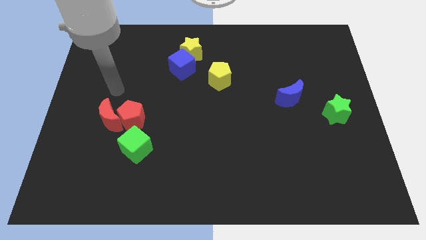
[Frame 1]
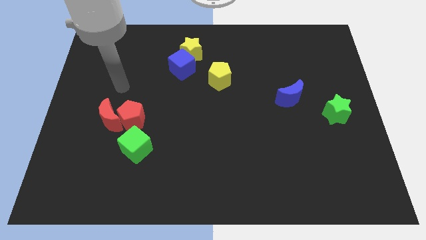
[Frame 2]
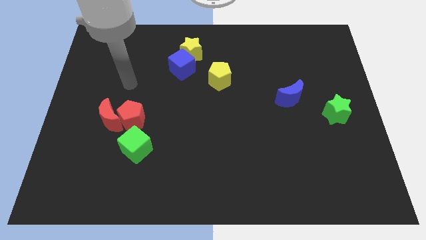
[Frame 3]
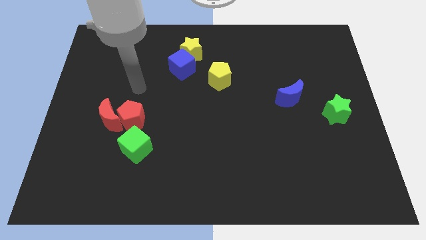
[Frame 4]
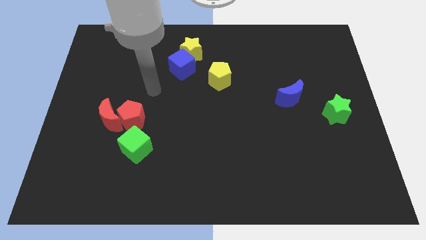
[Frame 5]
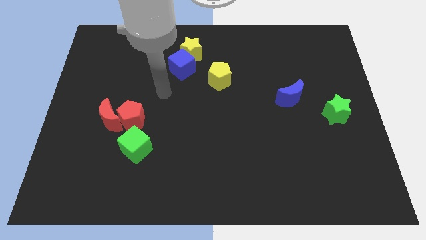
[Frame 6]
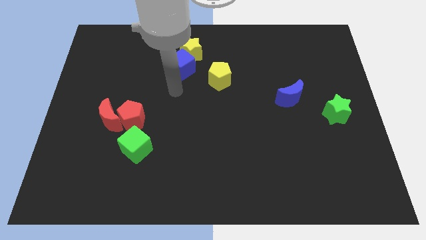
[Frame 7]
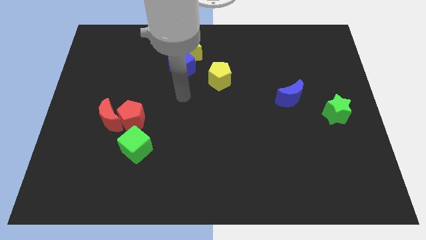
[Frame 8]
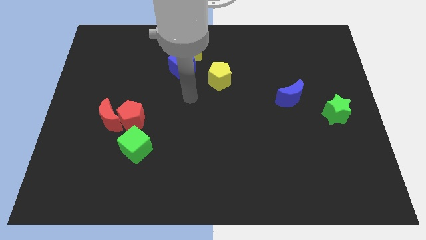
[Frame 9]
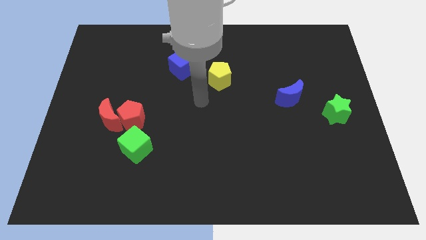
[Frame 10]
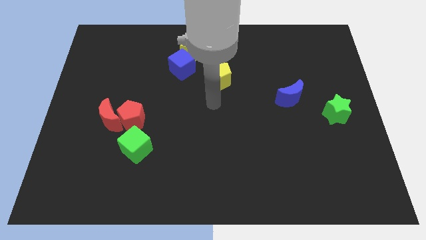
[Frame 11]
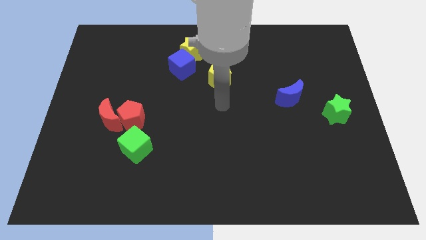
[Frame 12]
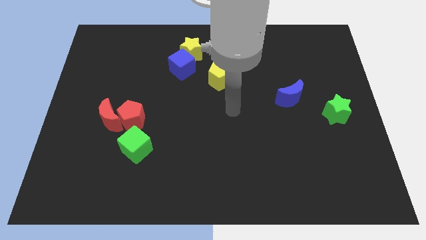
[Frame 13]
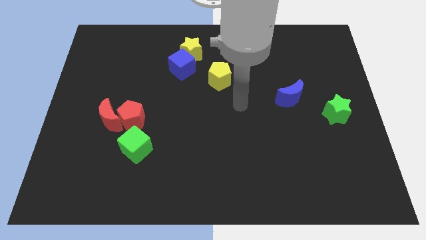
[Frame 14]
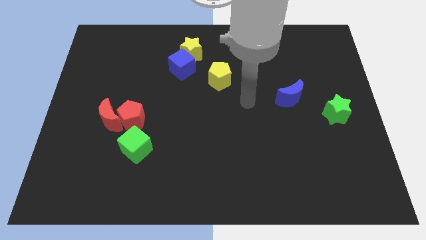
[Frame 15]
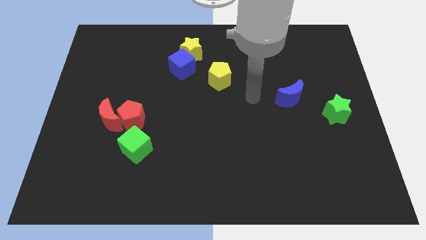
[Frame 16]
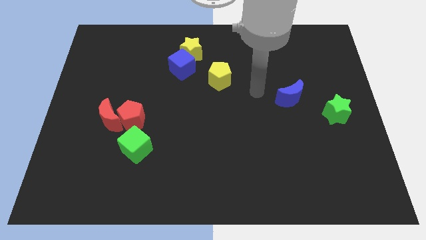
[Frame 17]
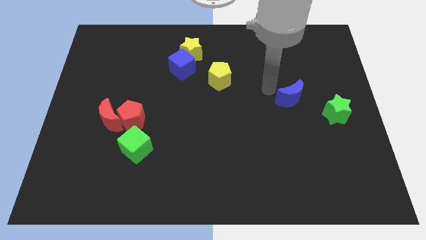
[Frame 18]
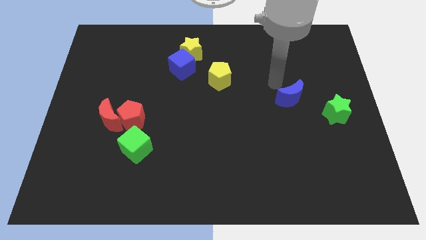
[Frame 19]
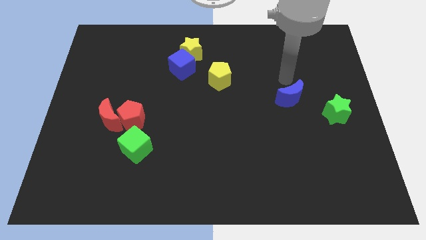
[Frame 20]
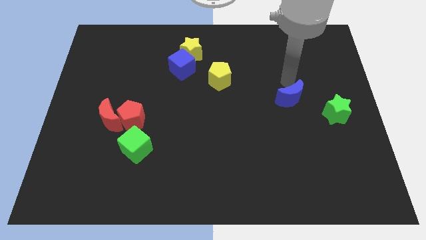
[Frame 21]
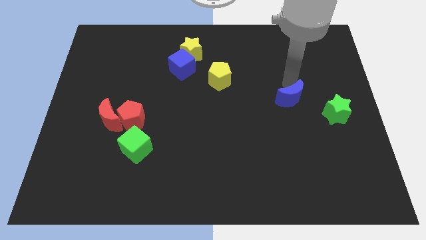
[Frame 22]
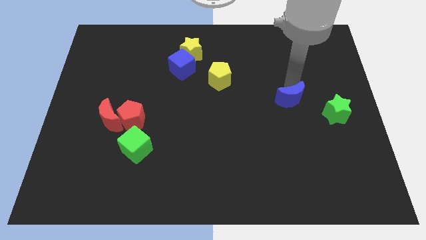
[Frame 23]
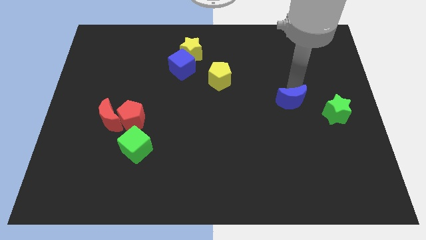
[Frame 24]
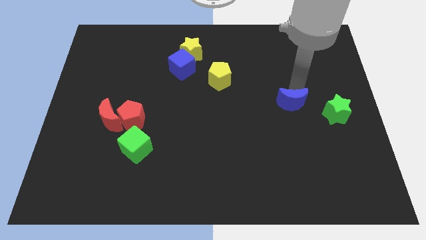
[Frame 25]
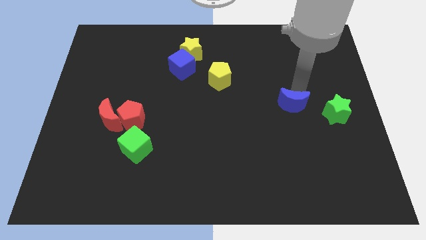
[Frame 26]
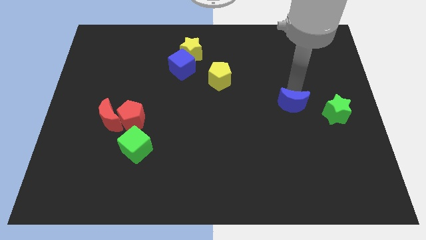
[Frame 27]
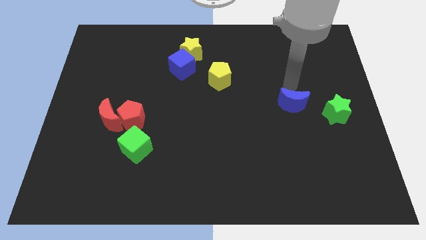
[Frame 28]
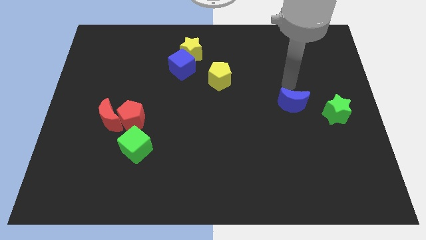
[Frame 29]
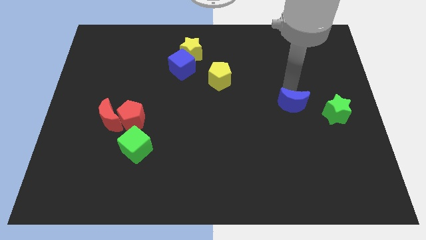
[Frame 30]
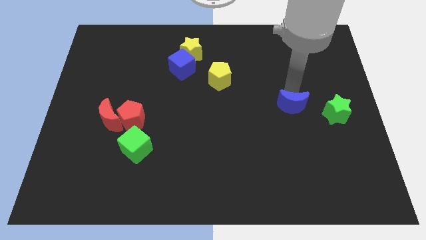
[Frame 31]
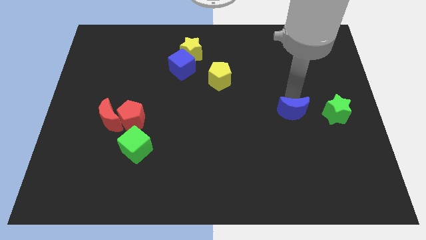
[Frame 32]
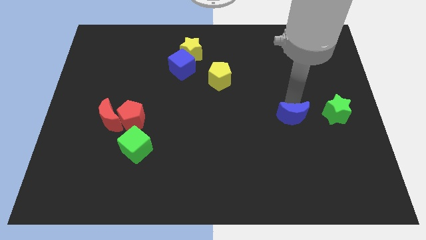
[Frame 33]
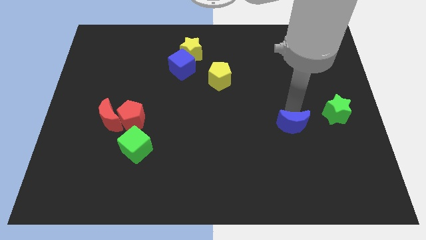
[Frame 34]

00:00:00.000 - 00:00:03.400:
slightly move the blue moon downwards

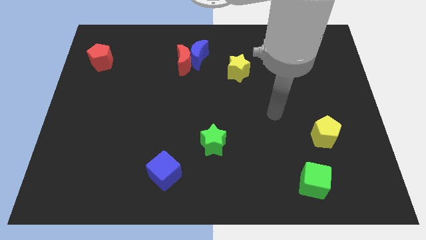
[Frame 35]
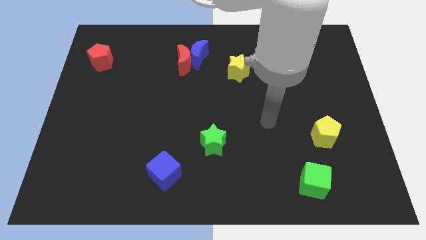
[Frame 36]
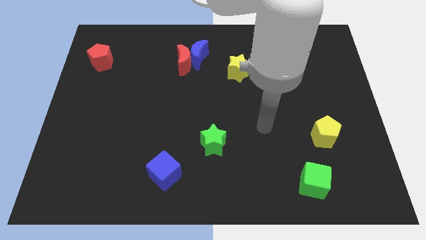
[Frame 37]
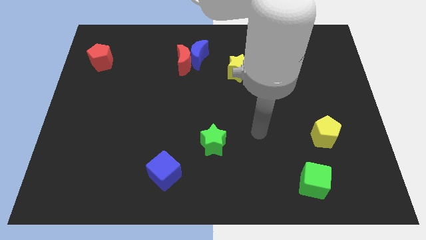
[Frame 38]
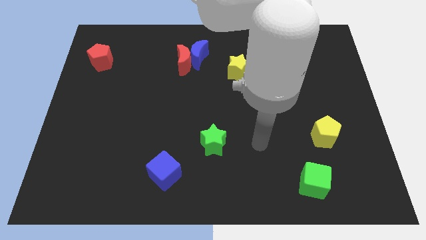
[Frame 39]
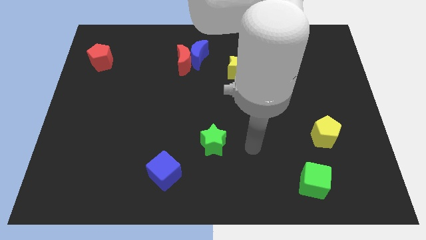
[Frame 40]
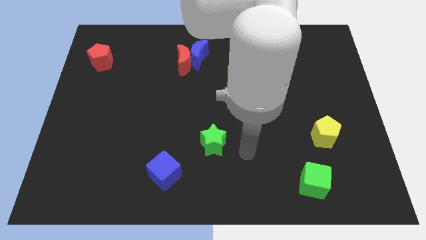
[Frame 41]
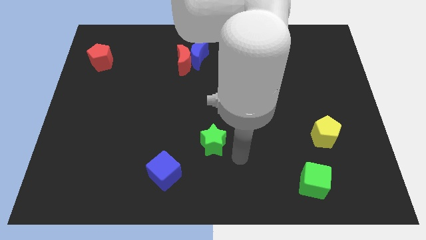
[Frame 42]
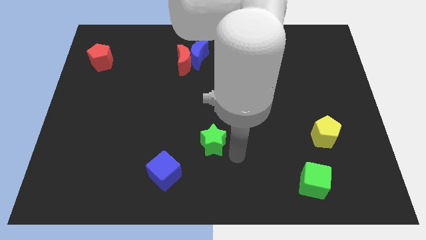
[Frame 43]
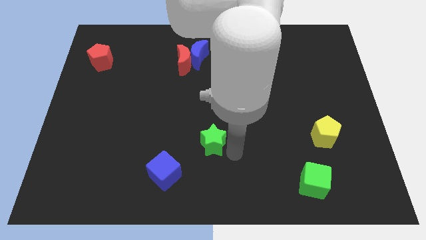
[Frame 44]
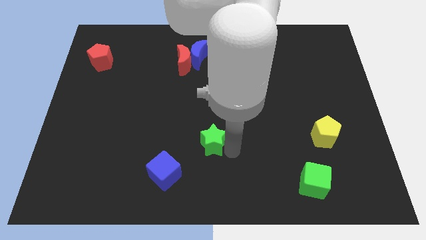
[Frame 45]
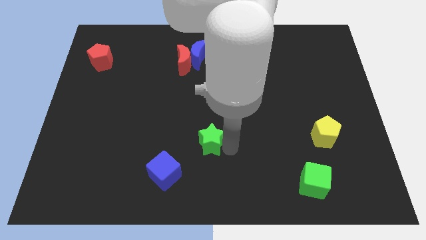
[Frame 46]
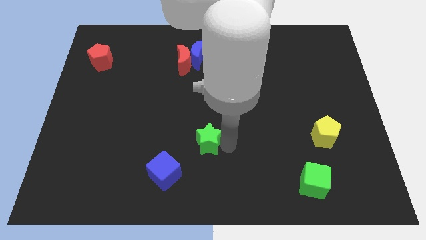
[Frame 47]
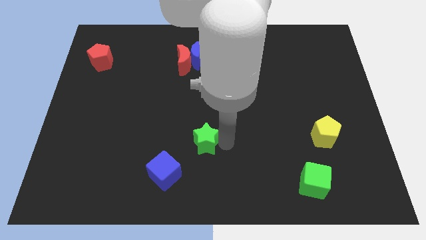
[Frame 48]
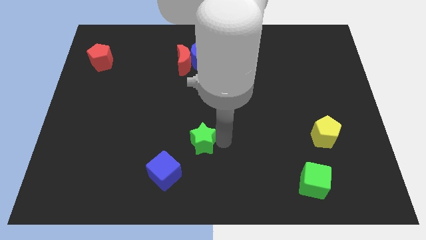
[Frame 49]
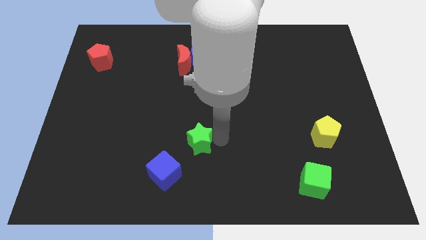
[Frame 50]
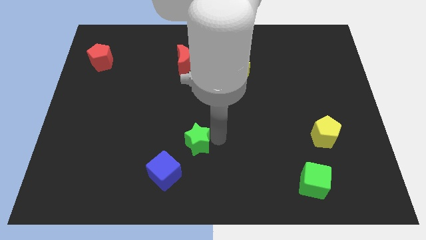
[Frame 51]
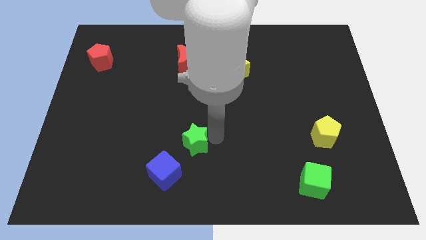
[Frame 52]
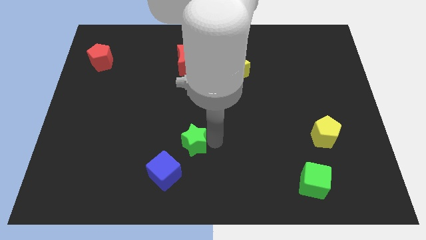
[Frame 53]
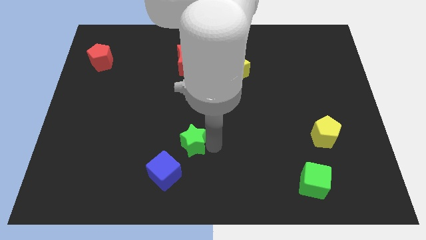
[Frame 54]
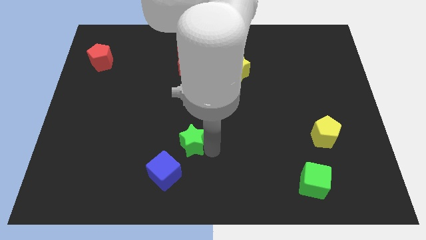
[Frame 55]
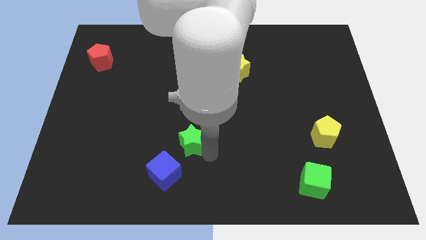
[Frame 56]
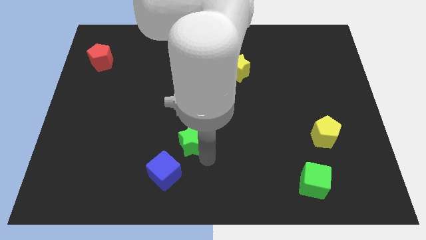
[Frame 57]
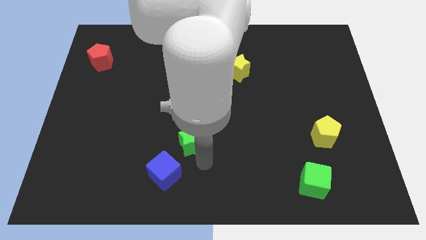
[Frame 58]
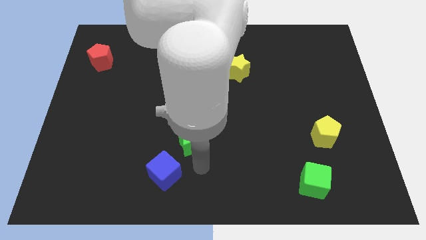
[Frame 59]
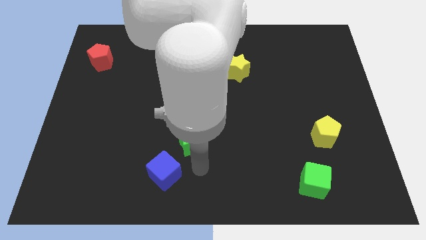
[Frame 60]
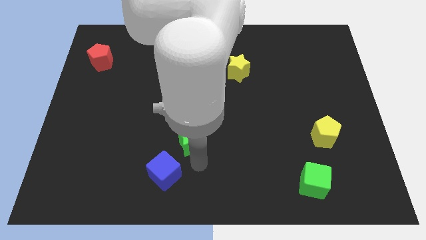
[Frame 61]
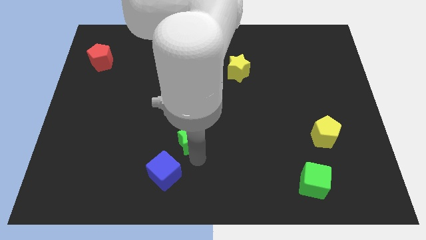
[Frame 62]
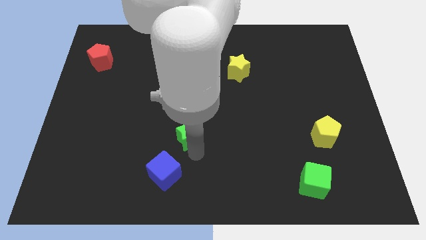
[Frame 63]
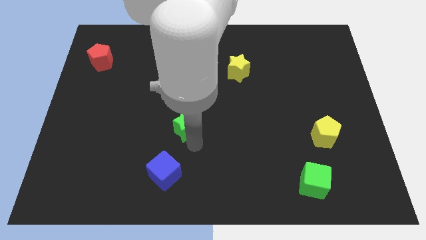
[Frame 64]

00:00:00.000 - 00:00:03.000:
push the green star a little bit diagonally upwards and left

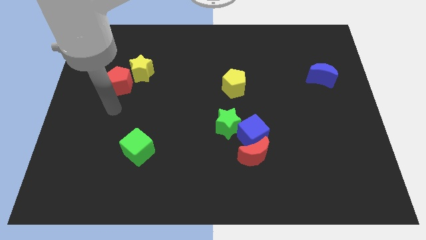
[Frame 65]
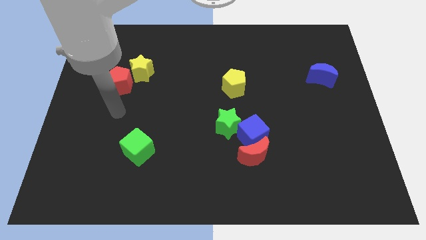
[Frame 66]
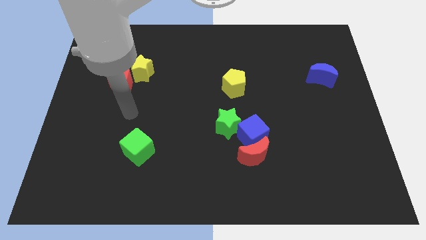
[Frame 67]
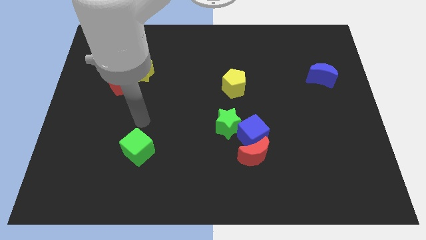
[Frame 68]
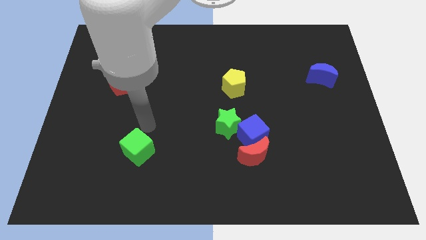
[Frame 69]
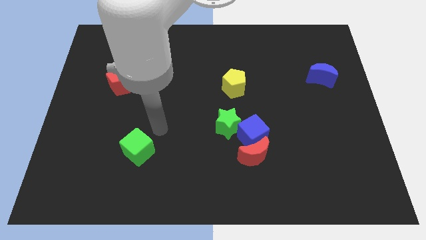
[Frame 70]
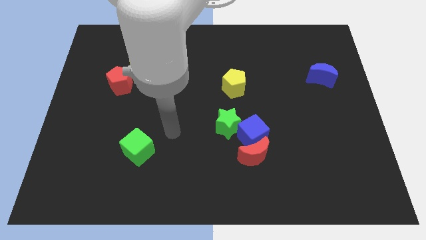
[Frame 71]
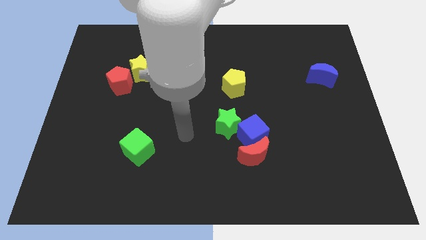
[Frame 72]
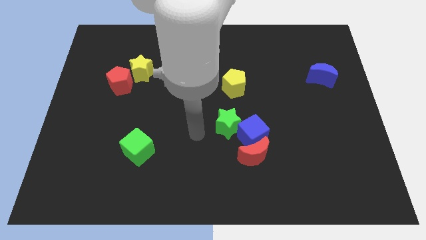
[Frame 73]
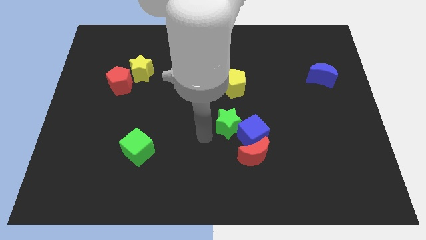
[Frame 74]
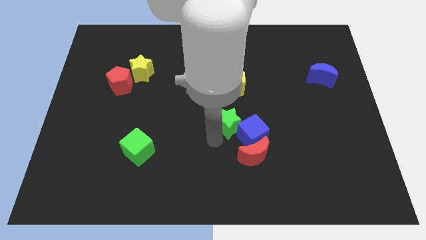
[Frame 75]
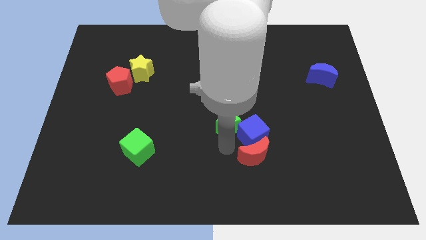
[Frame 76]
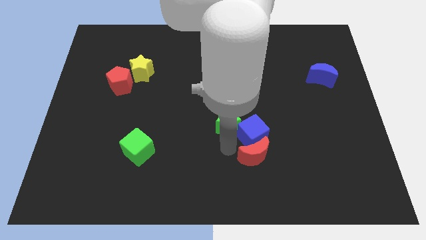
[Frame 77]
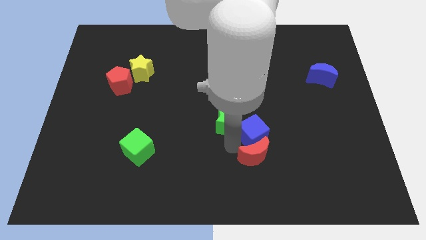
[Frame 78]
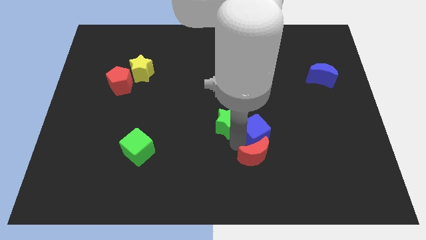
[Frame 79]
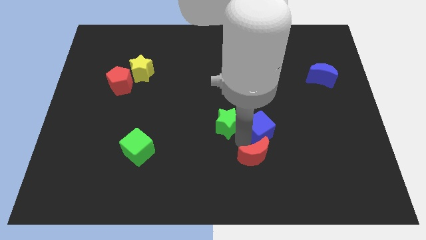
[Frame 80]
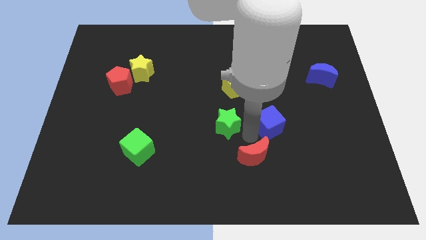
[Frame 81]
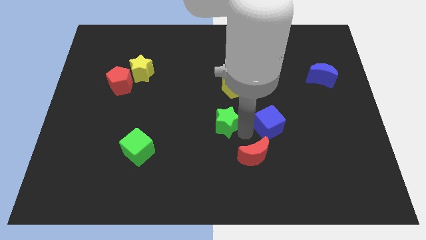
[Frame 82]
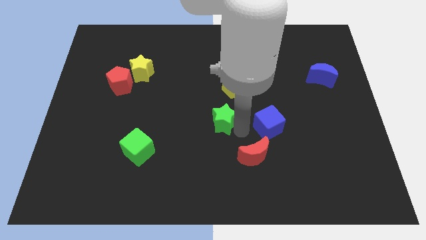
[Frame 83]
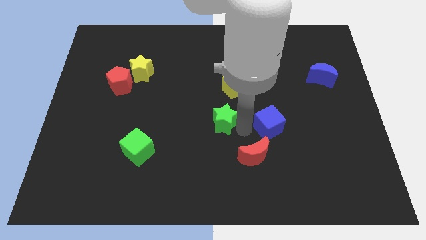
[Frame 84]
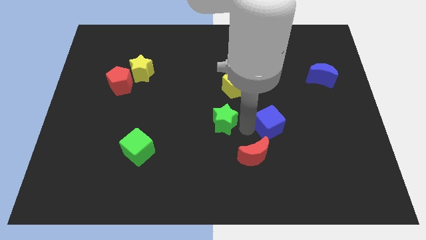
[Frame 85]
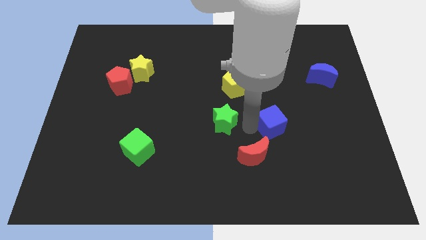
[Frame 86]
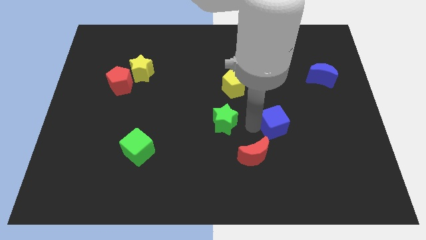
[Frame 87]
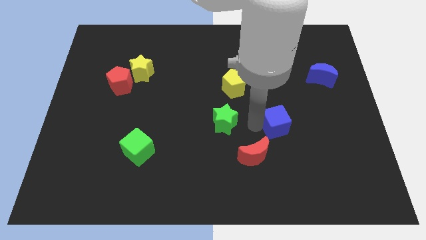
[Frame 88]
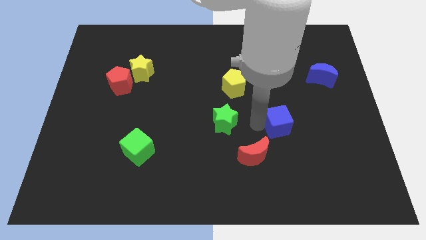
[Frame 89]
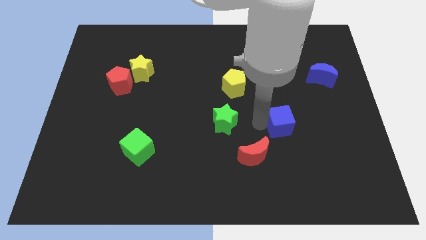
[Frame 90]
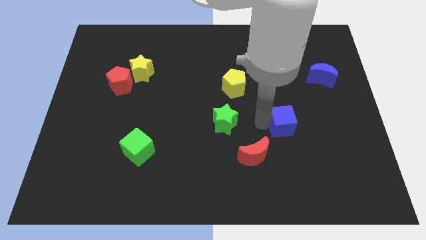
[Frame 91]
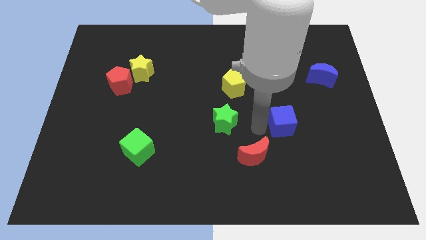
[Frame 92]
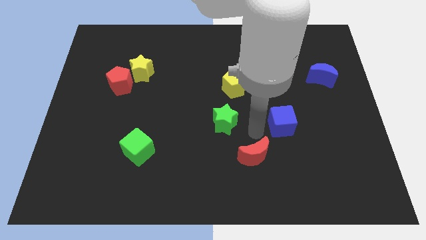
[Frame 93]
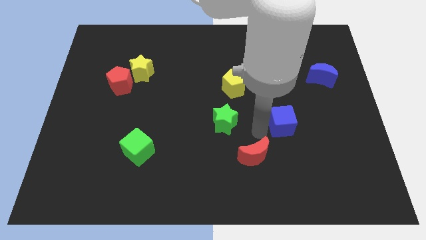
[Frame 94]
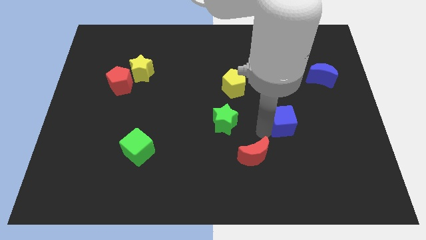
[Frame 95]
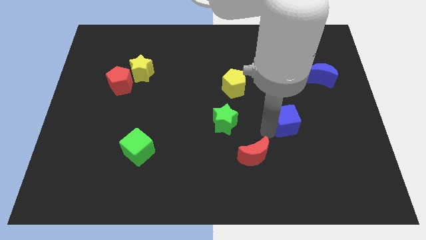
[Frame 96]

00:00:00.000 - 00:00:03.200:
slightly move the blue cube to the right
